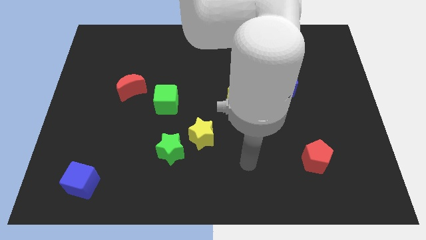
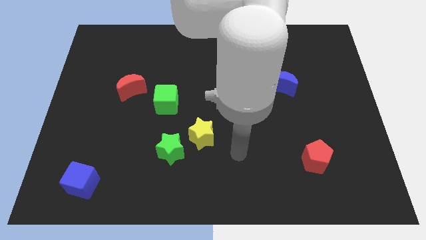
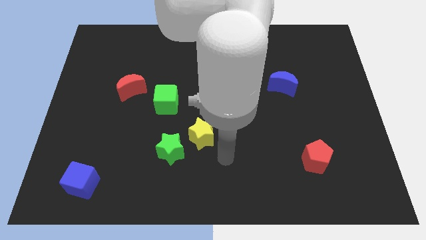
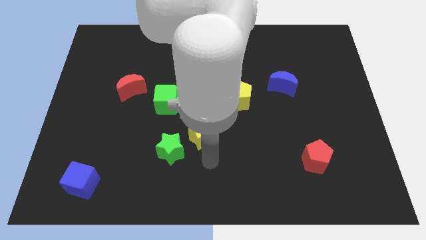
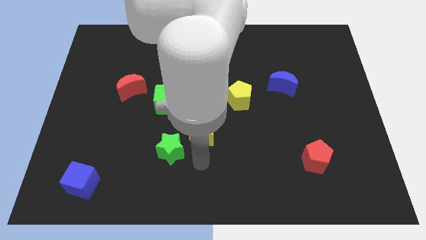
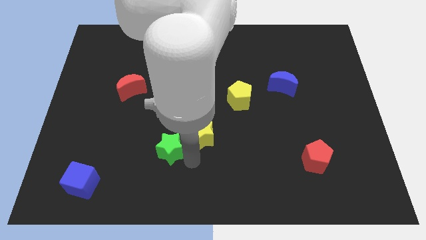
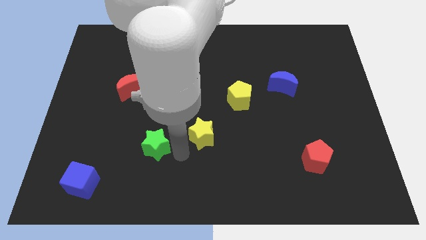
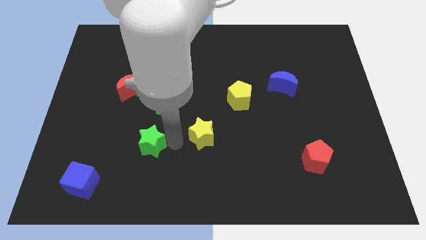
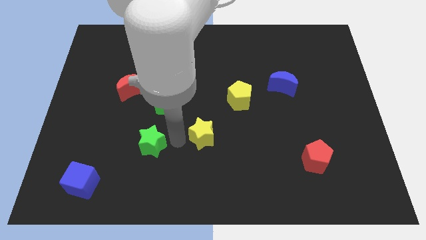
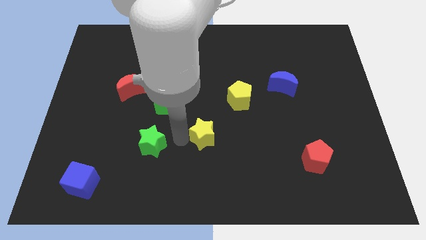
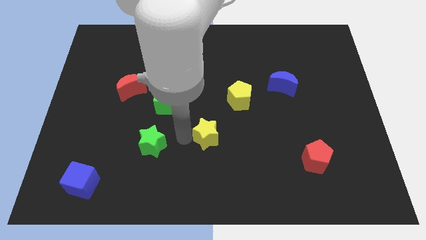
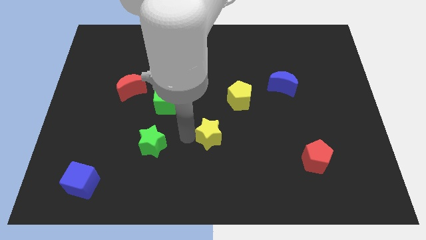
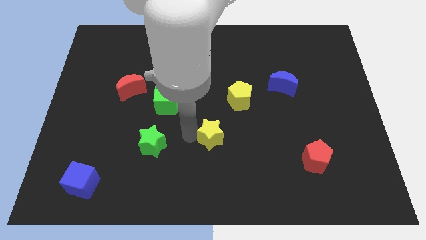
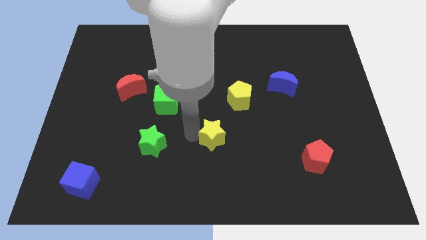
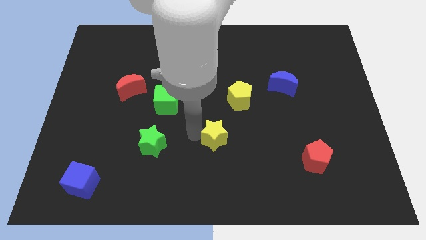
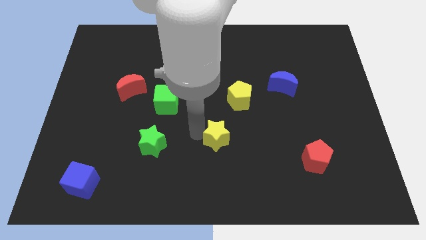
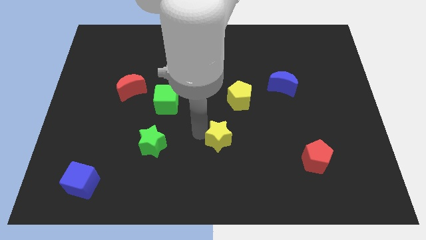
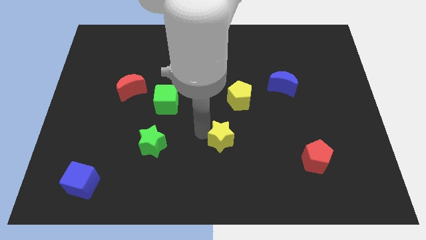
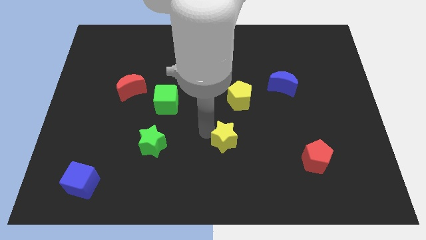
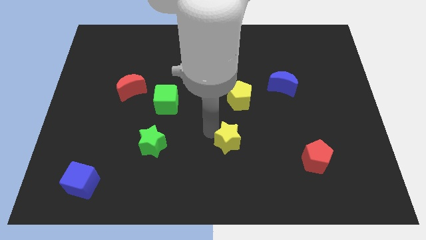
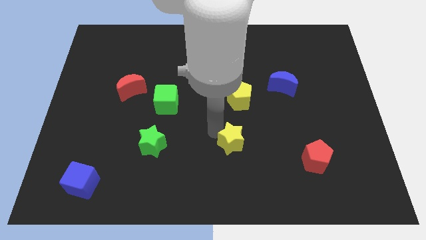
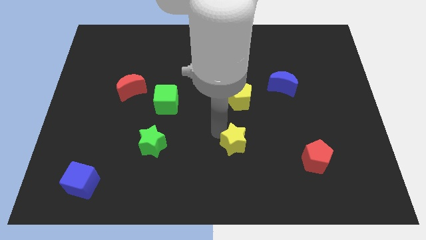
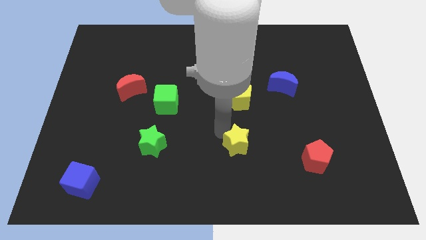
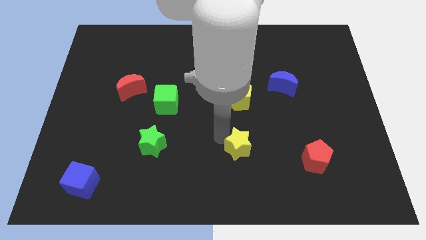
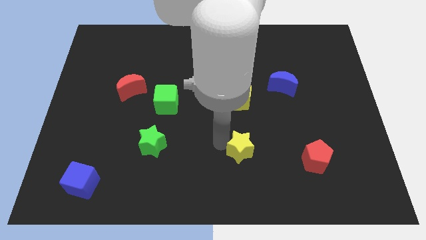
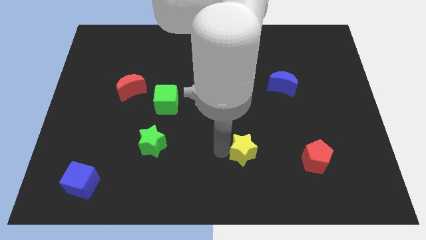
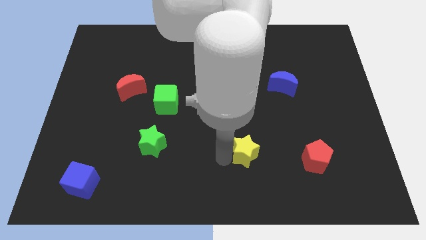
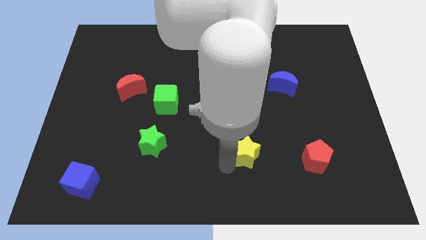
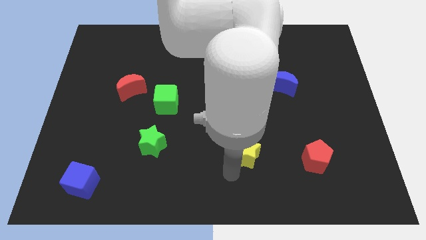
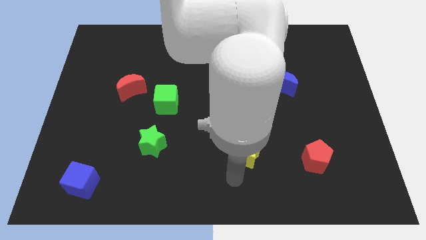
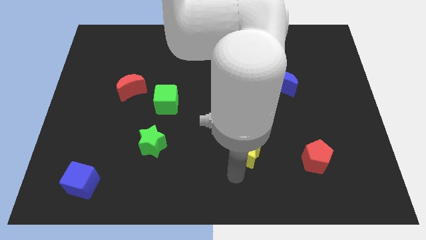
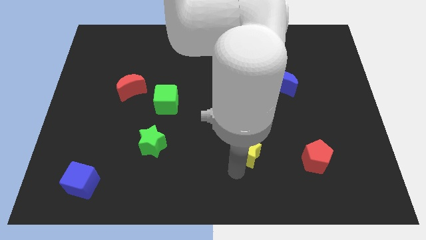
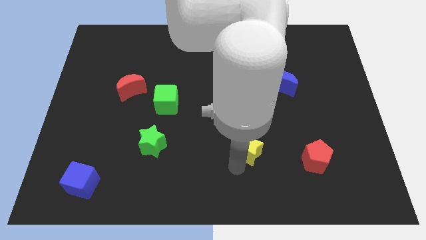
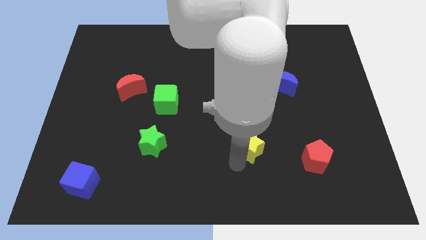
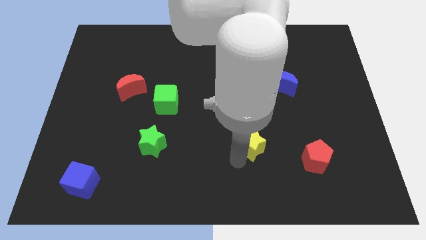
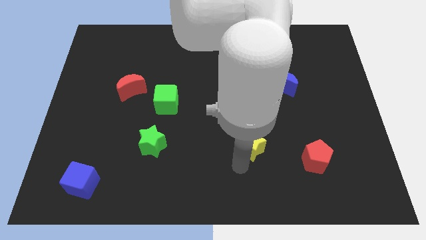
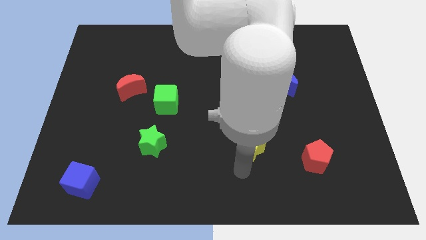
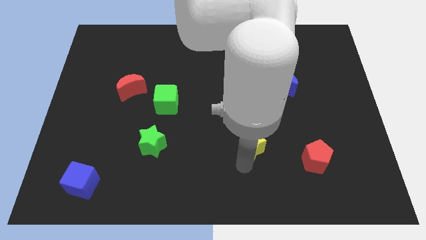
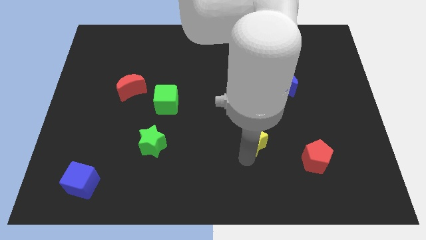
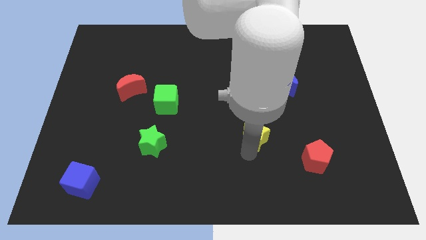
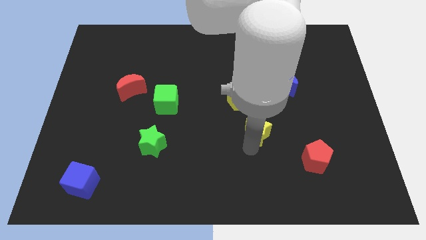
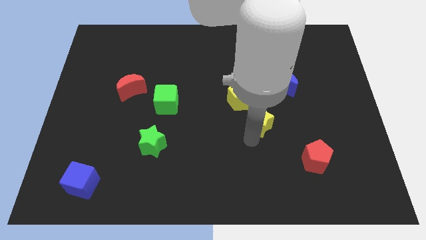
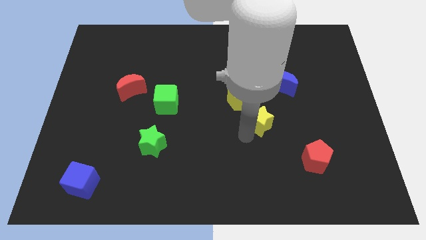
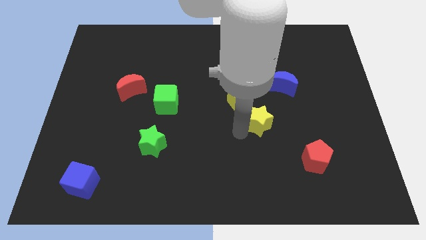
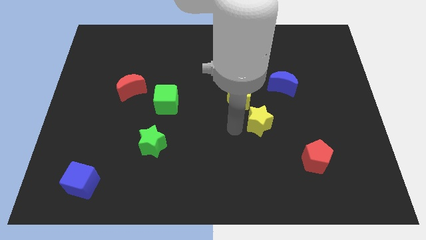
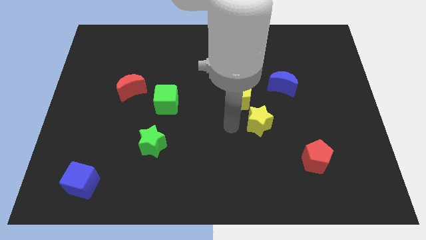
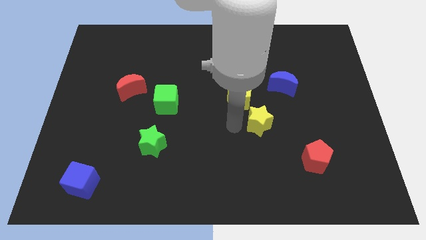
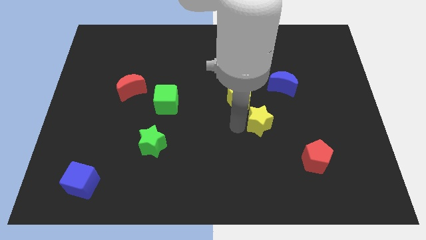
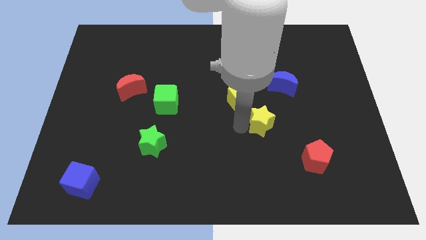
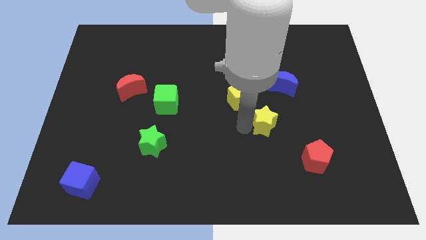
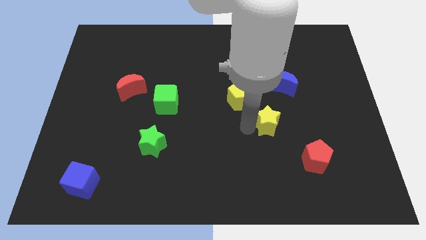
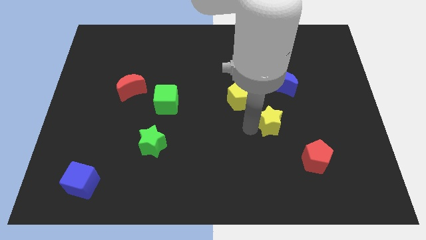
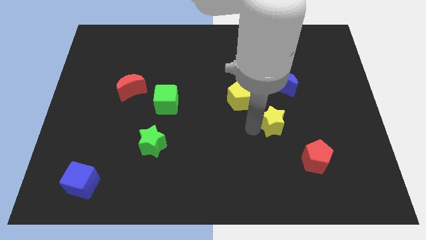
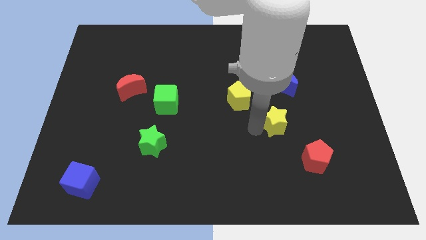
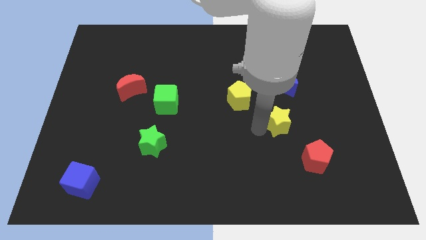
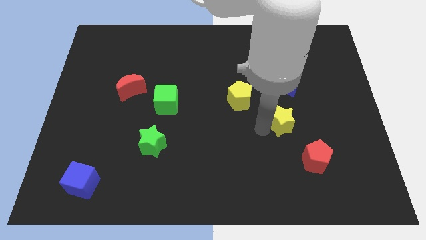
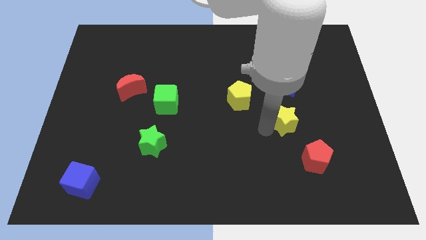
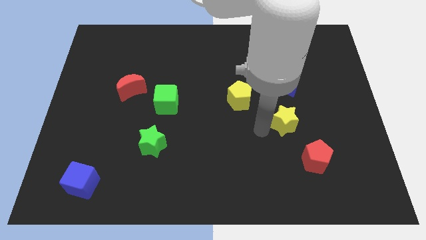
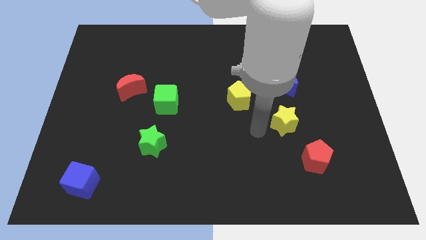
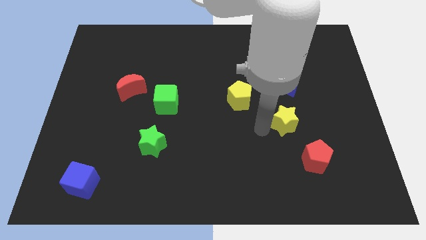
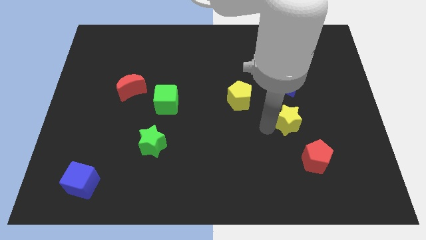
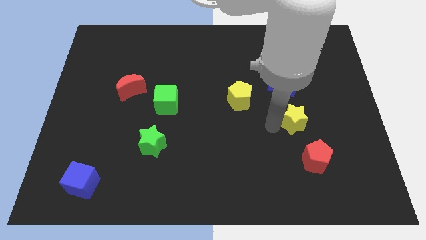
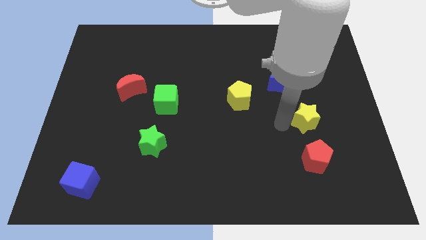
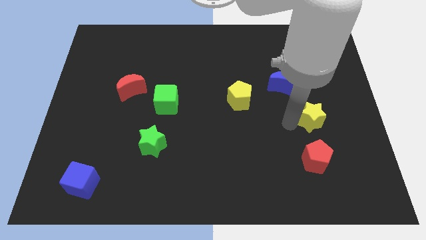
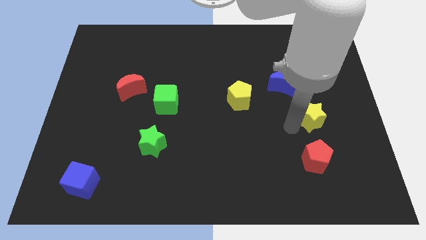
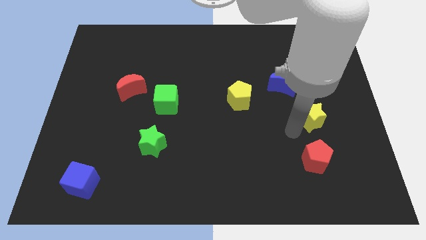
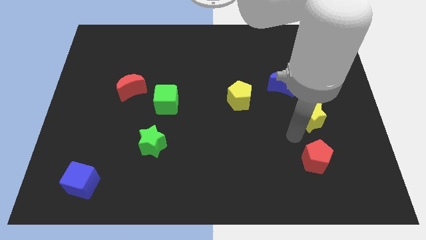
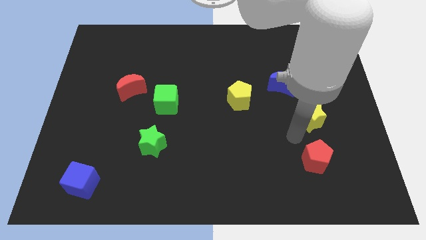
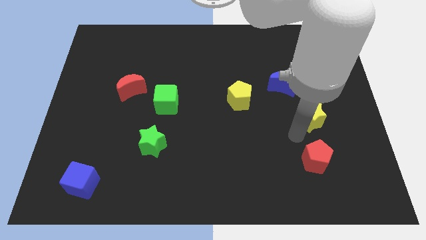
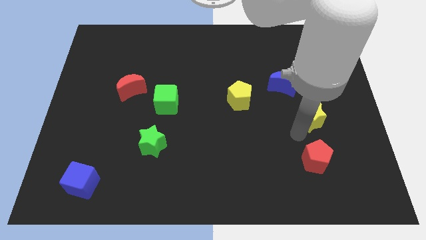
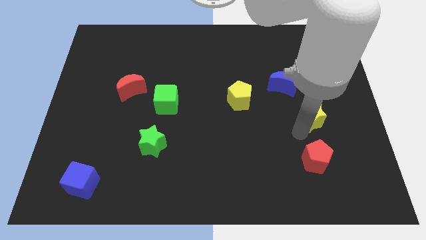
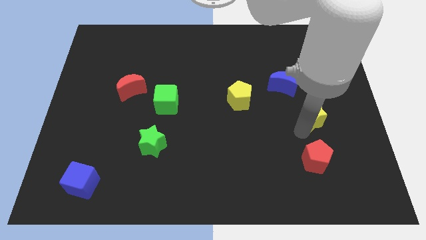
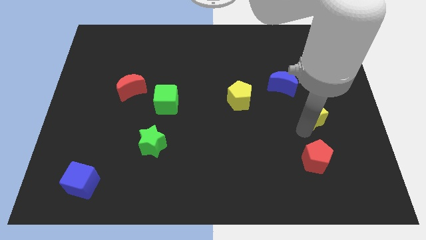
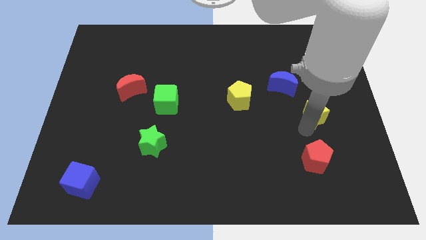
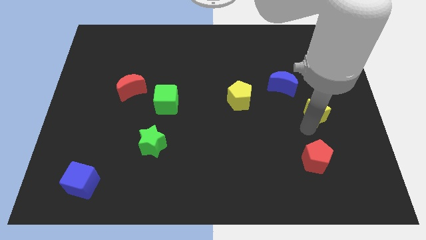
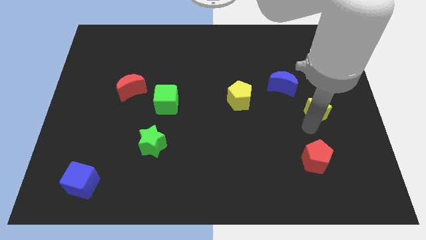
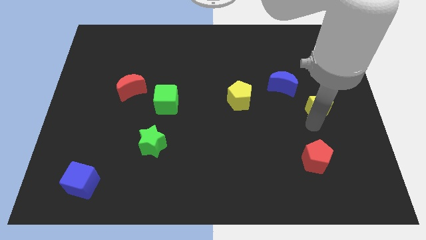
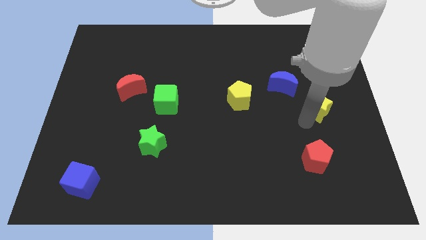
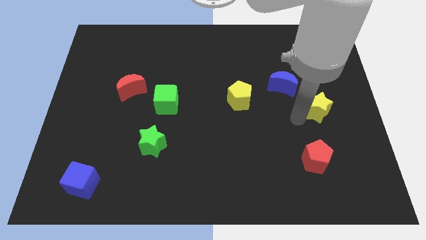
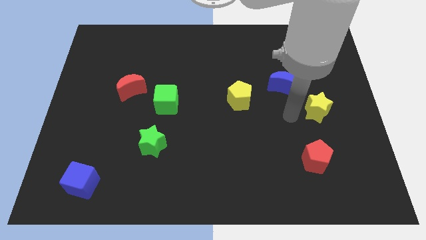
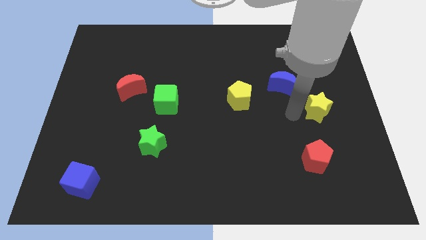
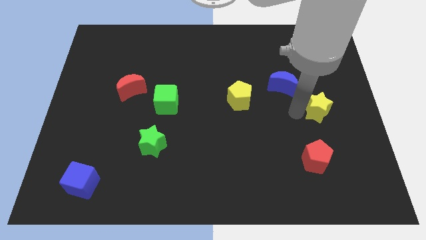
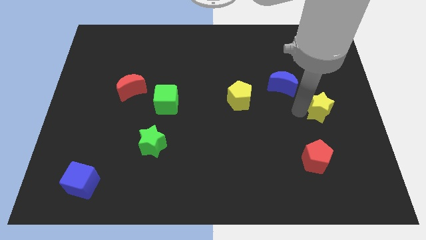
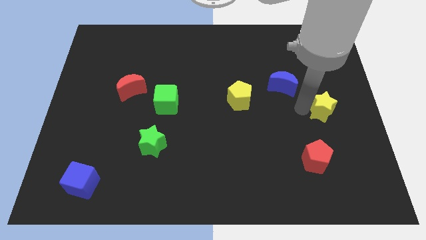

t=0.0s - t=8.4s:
slide the yellow star to the right side of the board
